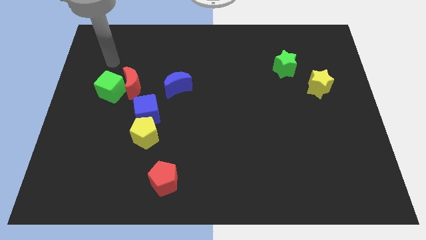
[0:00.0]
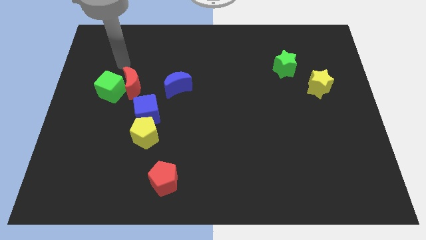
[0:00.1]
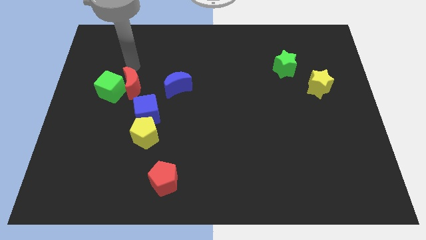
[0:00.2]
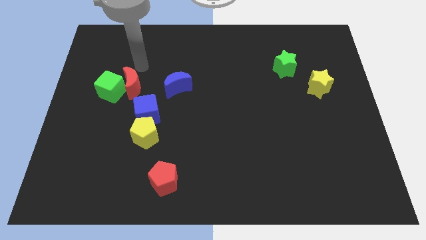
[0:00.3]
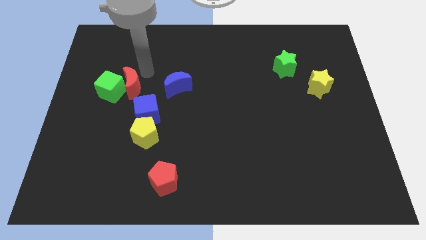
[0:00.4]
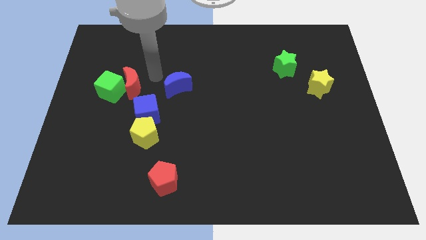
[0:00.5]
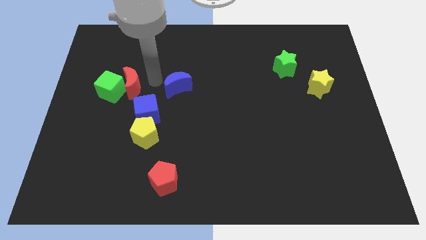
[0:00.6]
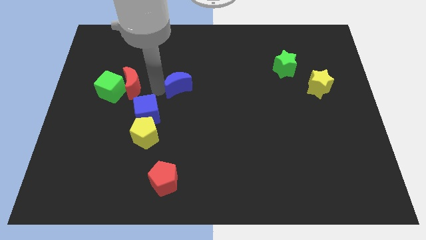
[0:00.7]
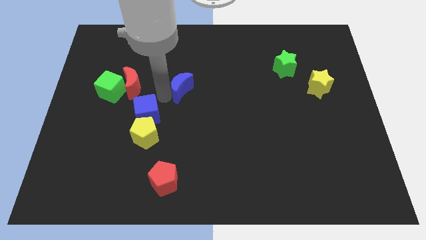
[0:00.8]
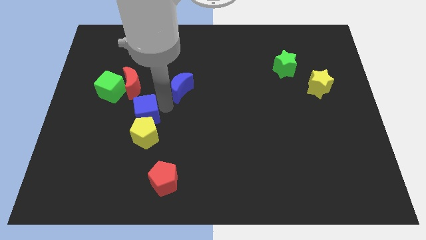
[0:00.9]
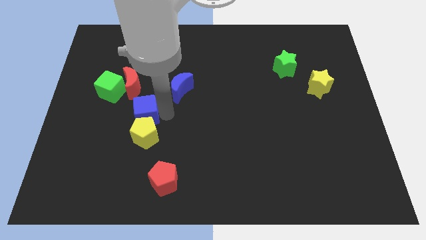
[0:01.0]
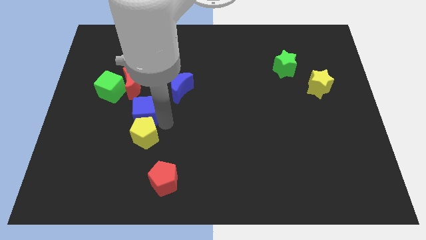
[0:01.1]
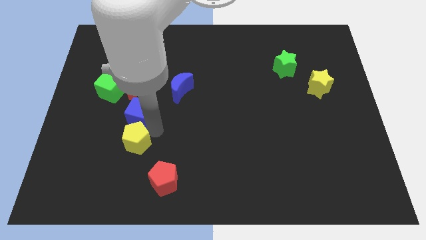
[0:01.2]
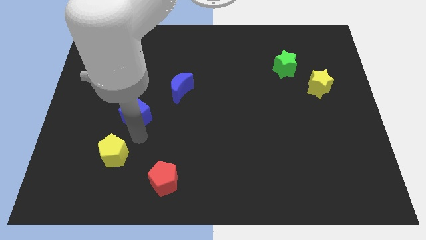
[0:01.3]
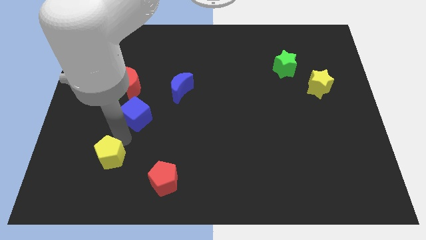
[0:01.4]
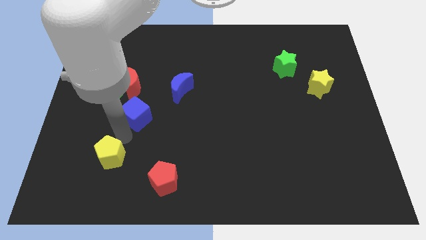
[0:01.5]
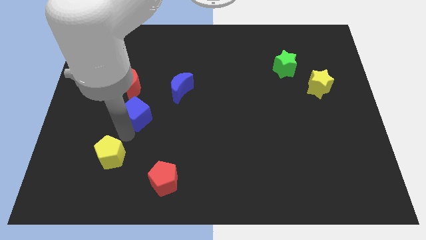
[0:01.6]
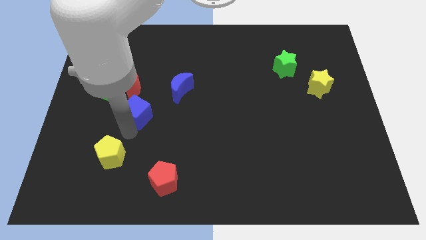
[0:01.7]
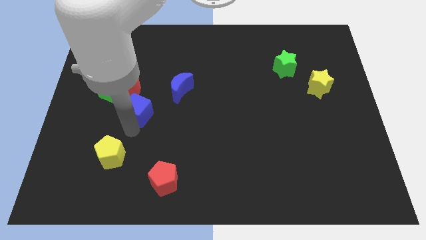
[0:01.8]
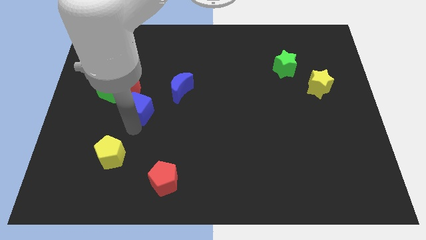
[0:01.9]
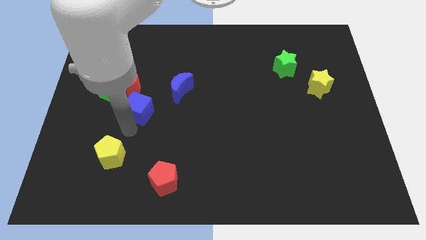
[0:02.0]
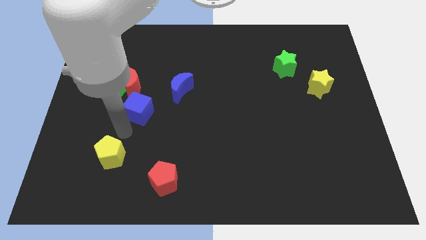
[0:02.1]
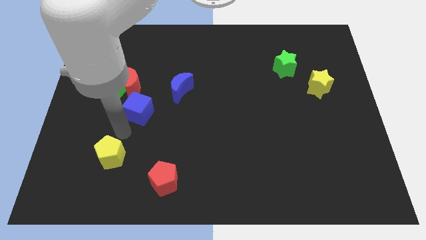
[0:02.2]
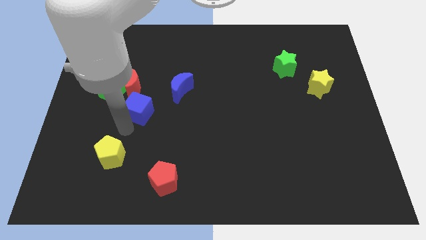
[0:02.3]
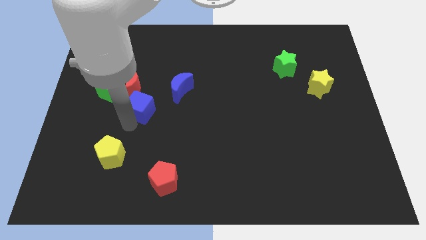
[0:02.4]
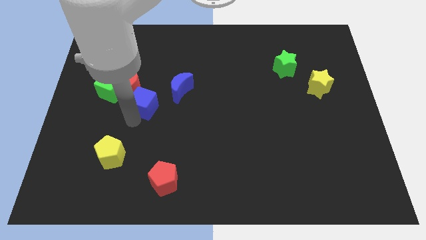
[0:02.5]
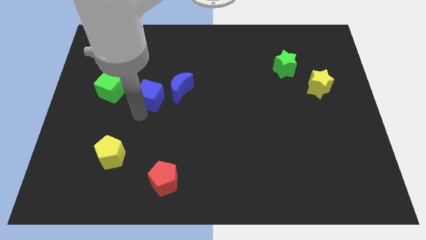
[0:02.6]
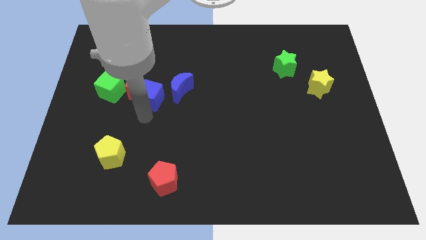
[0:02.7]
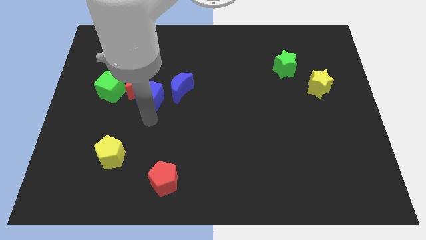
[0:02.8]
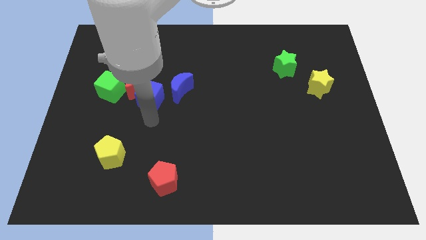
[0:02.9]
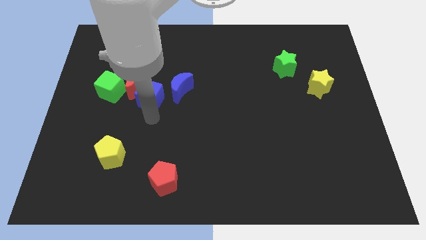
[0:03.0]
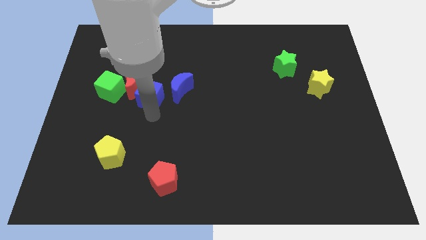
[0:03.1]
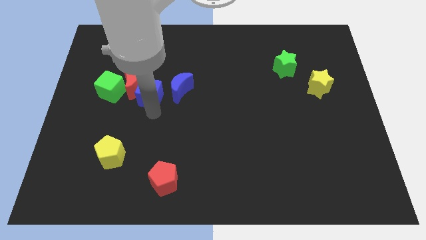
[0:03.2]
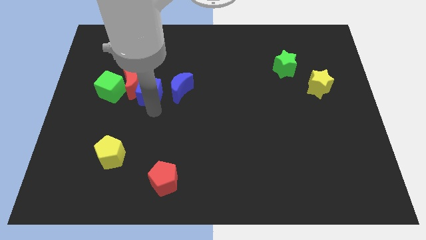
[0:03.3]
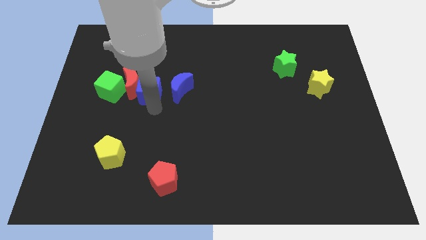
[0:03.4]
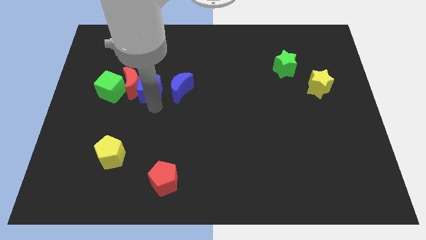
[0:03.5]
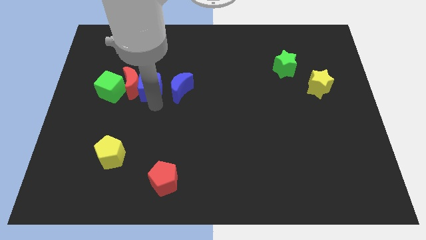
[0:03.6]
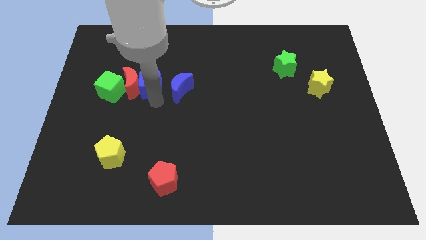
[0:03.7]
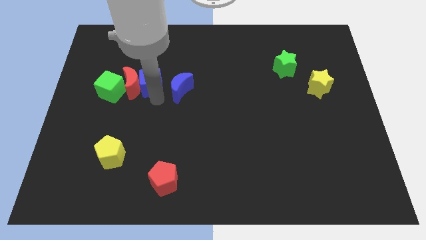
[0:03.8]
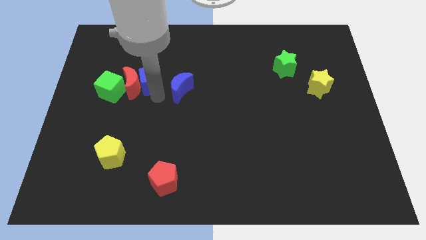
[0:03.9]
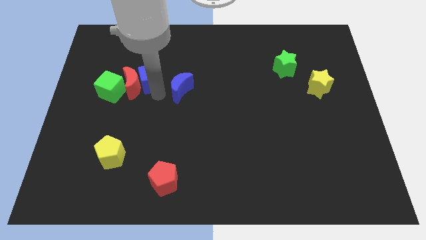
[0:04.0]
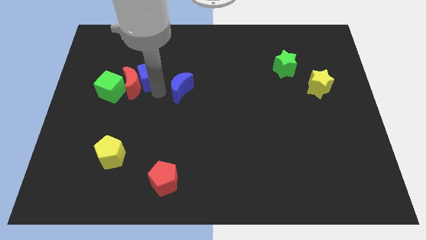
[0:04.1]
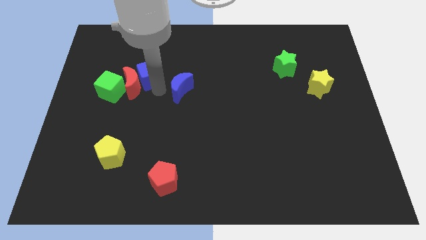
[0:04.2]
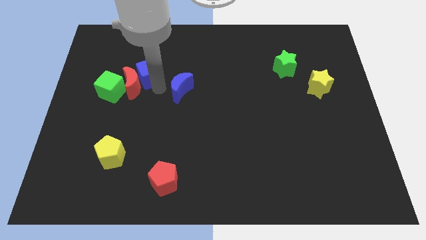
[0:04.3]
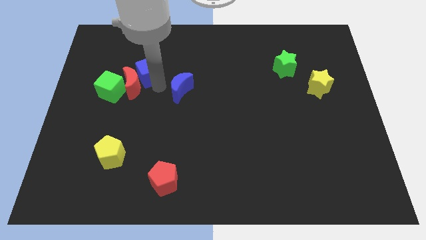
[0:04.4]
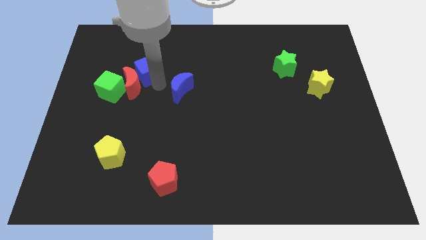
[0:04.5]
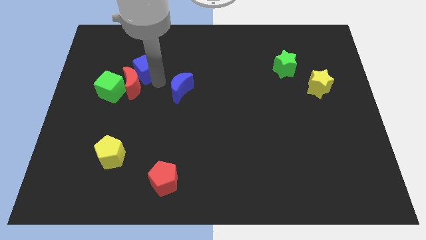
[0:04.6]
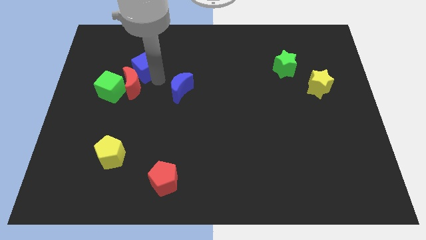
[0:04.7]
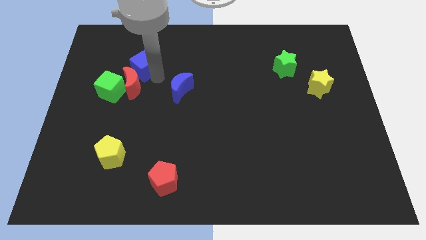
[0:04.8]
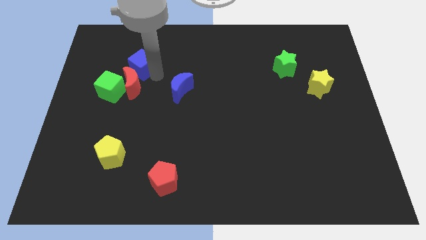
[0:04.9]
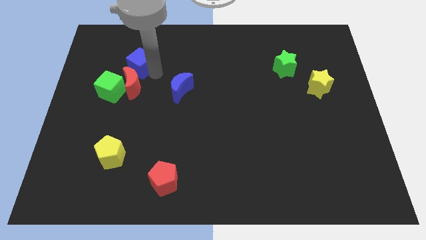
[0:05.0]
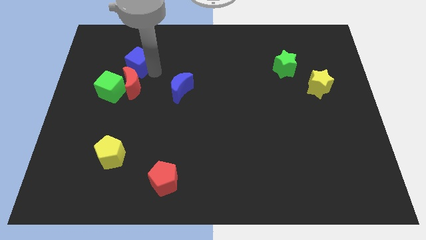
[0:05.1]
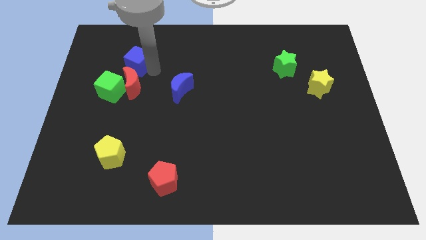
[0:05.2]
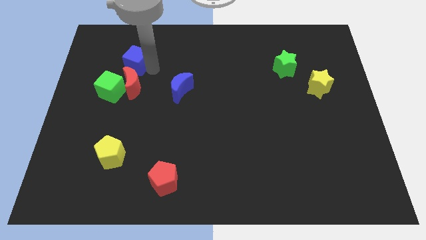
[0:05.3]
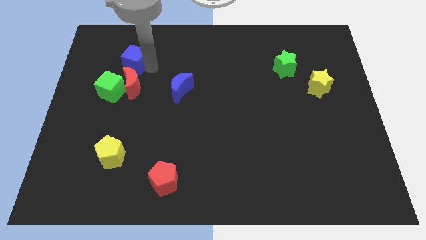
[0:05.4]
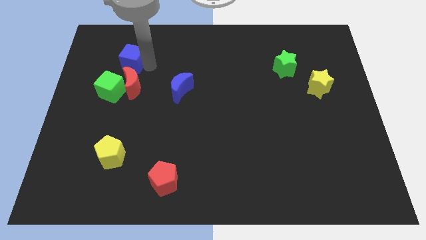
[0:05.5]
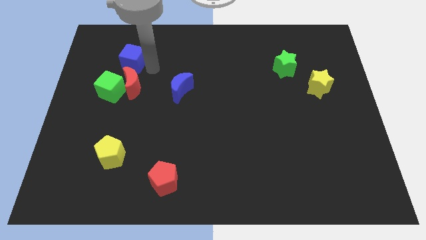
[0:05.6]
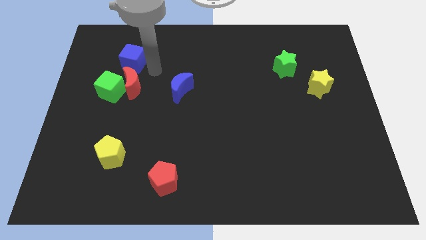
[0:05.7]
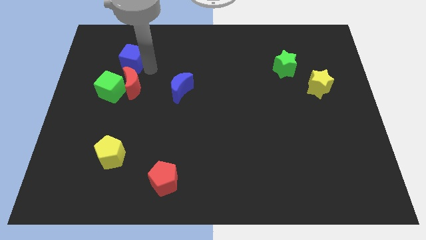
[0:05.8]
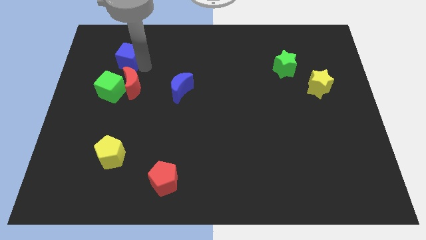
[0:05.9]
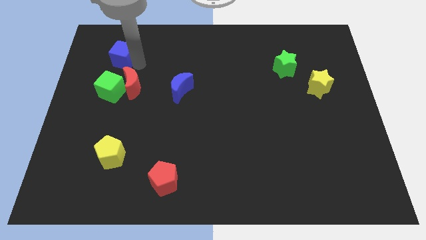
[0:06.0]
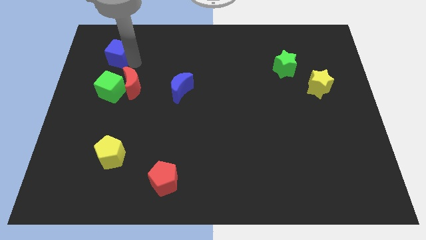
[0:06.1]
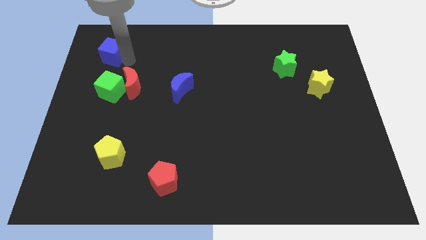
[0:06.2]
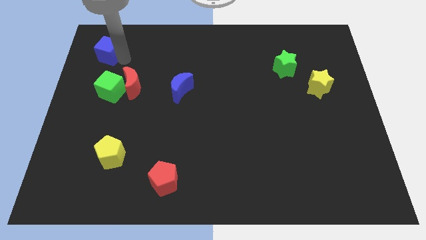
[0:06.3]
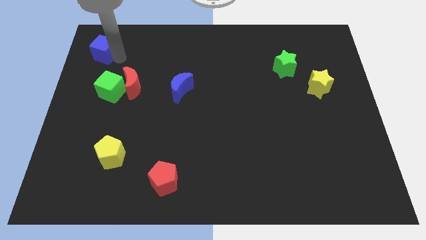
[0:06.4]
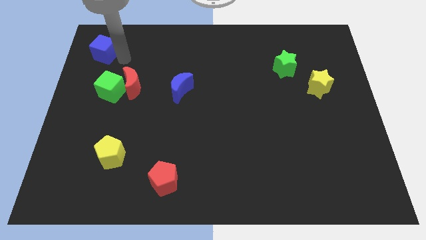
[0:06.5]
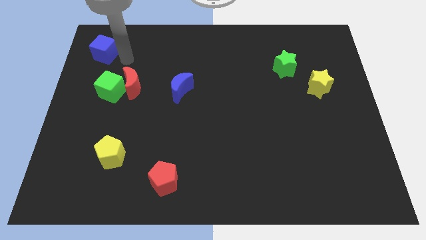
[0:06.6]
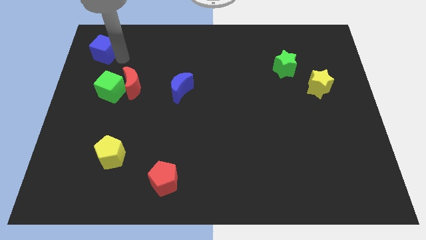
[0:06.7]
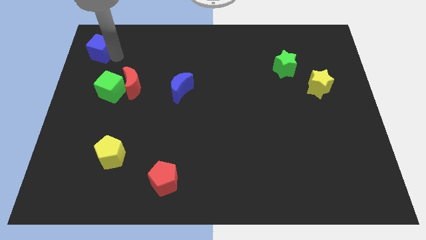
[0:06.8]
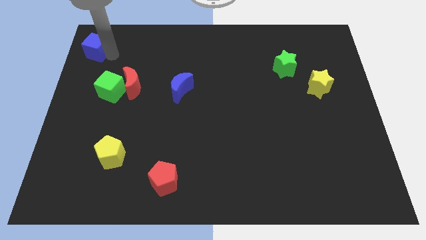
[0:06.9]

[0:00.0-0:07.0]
put the blue cube to the top left
